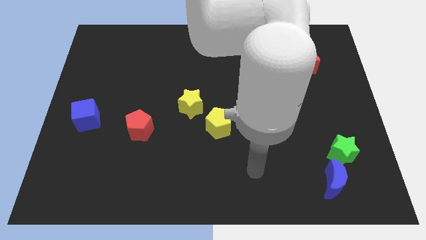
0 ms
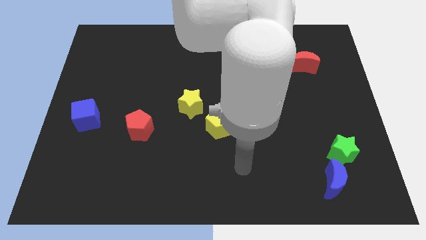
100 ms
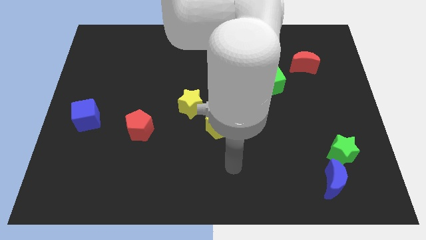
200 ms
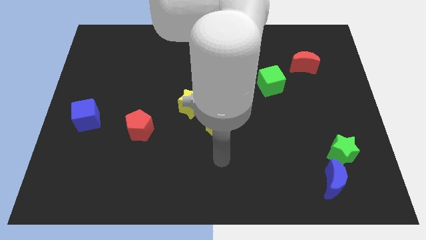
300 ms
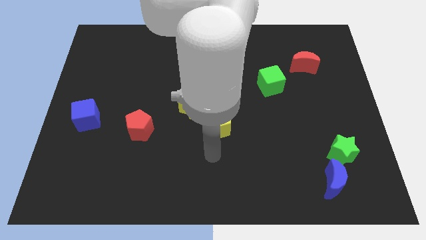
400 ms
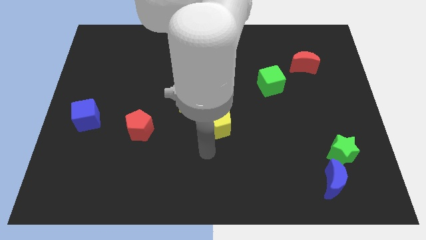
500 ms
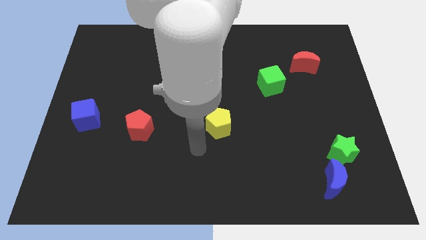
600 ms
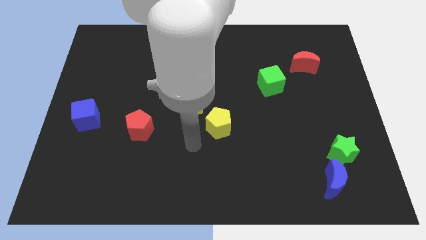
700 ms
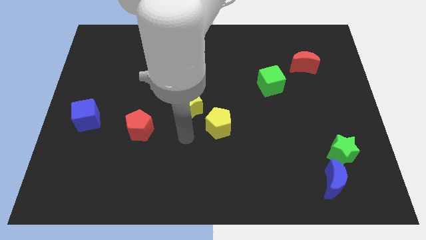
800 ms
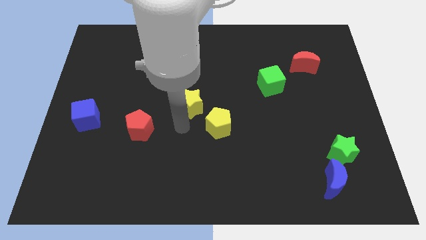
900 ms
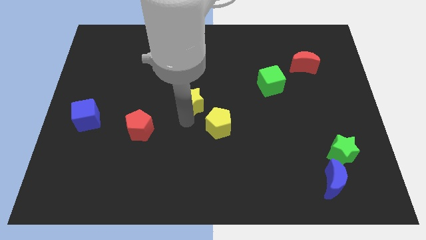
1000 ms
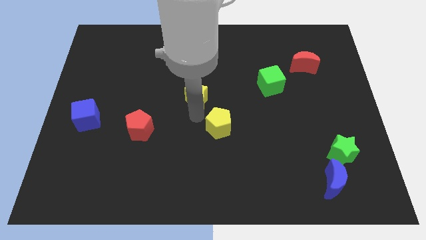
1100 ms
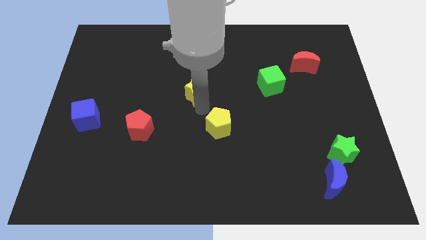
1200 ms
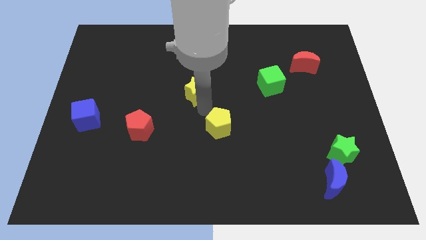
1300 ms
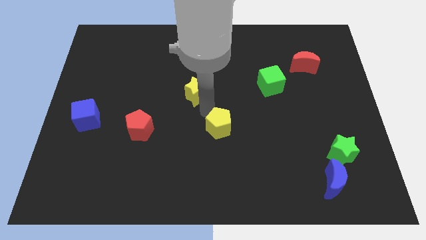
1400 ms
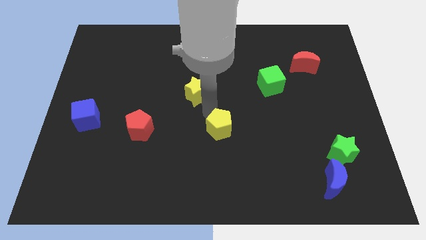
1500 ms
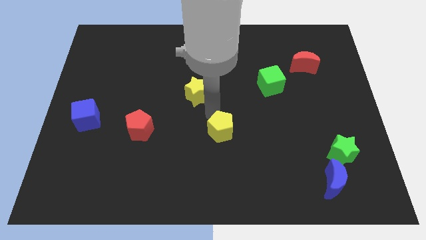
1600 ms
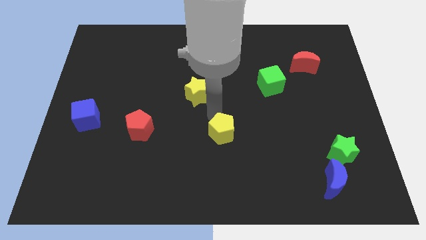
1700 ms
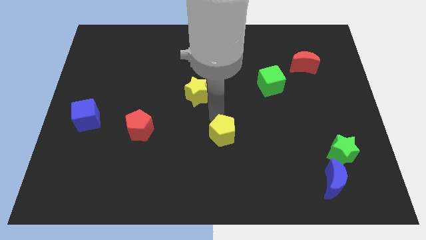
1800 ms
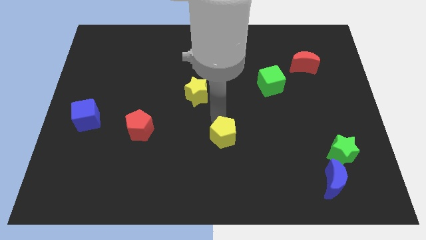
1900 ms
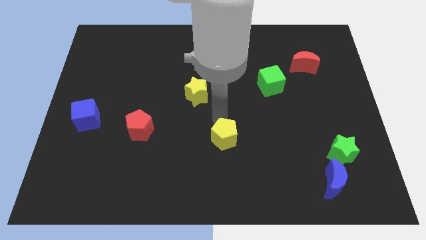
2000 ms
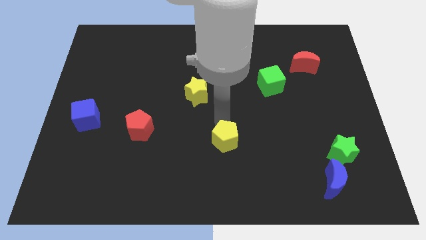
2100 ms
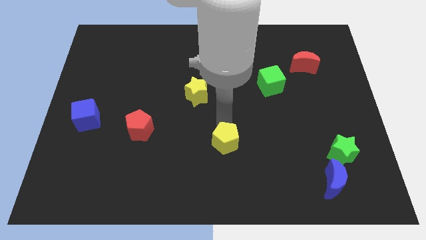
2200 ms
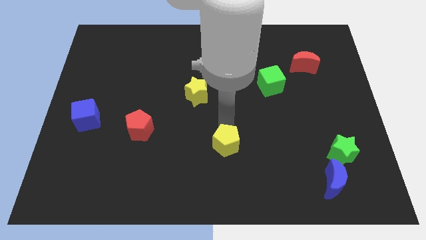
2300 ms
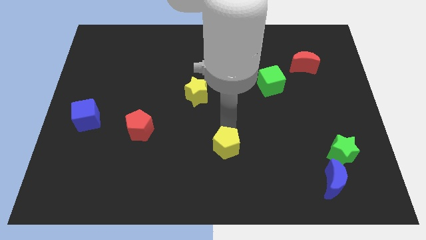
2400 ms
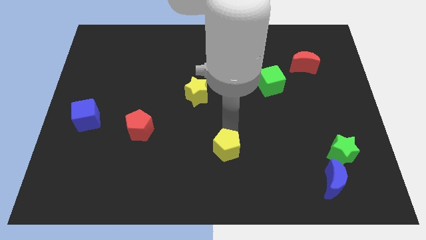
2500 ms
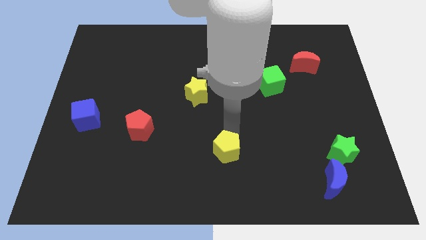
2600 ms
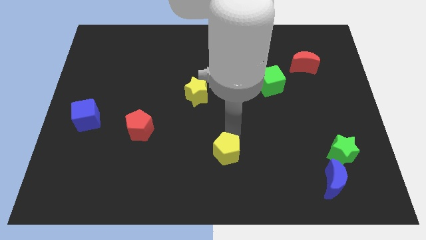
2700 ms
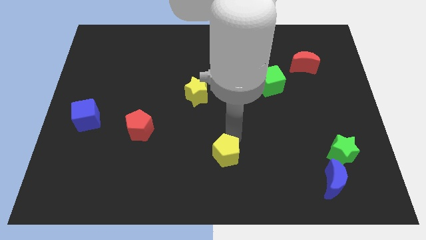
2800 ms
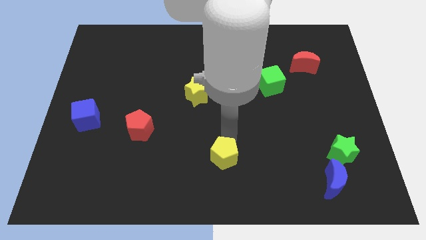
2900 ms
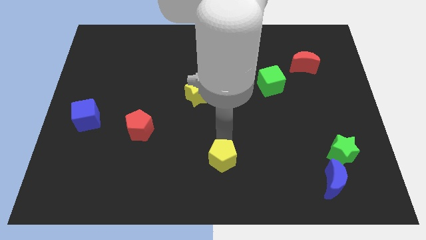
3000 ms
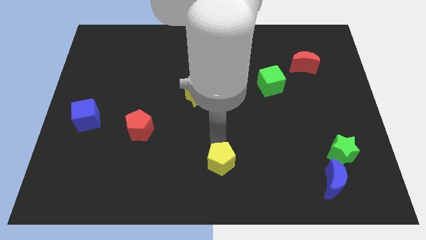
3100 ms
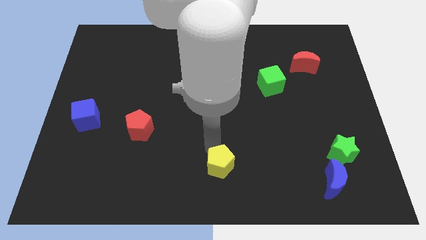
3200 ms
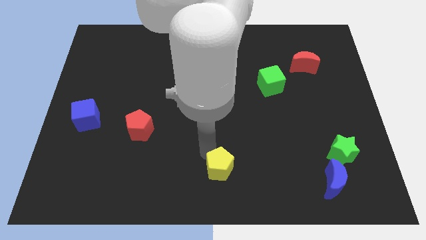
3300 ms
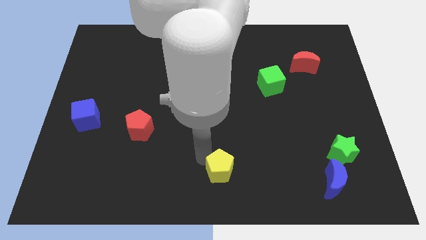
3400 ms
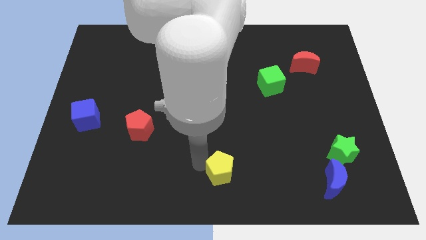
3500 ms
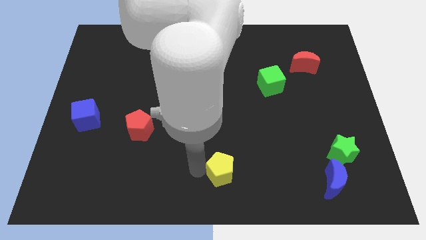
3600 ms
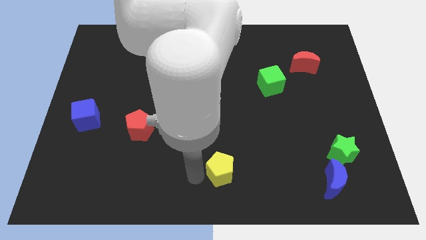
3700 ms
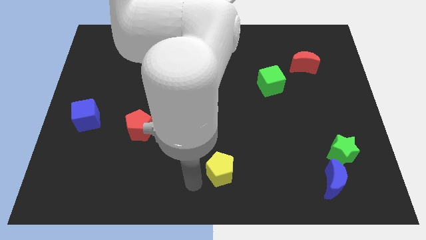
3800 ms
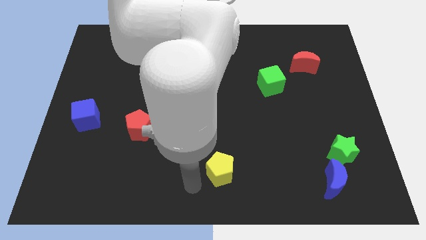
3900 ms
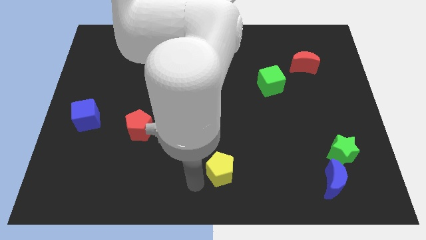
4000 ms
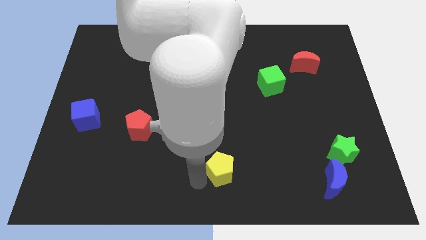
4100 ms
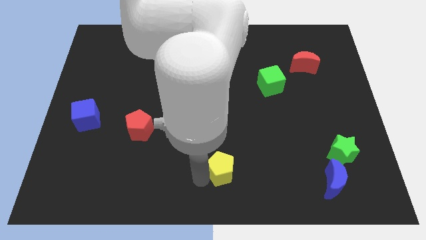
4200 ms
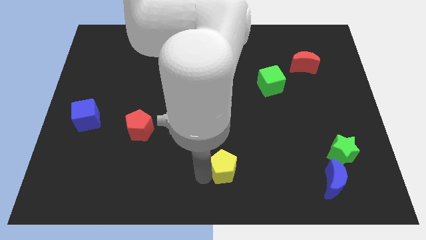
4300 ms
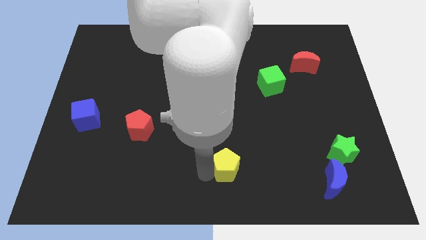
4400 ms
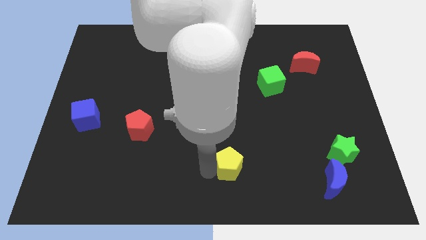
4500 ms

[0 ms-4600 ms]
move the yellow pentagon somewhat downwards and then to the right

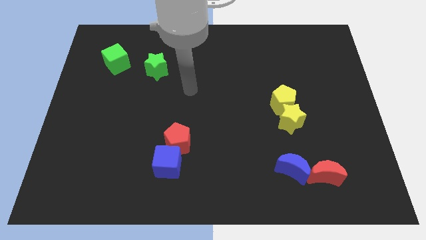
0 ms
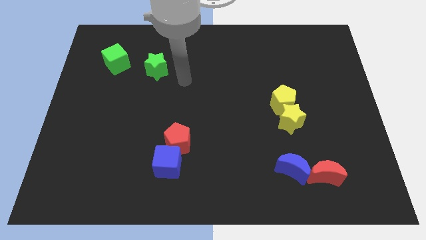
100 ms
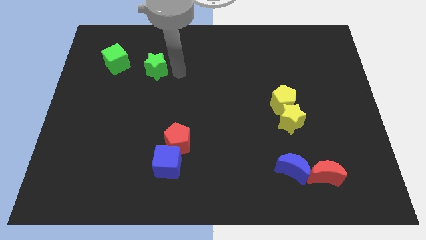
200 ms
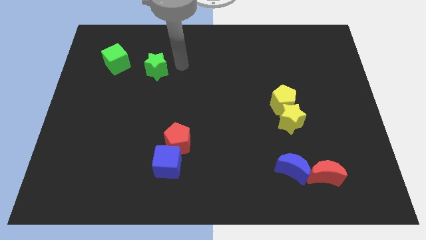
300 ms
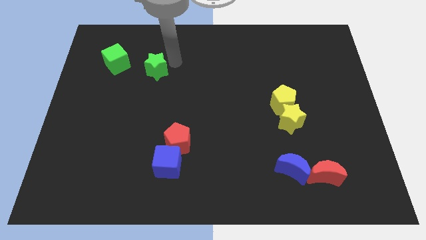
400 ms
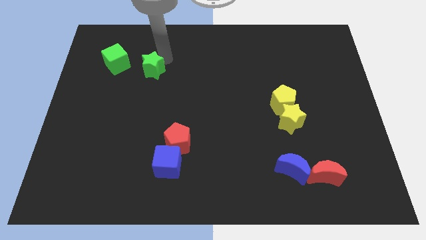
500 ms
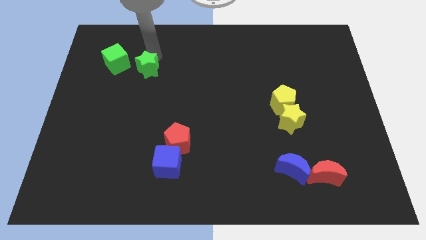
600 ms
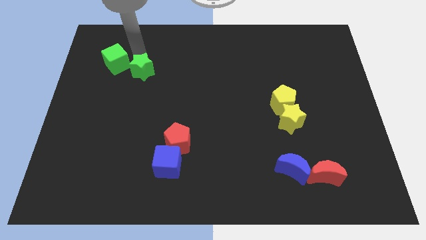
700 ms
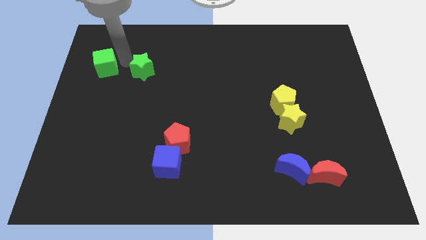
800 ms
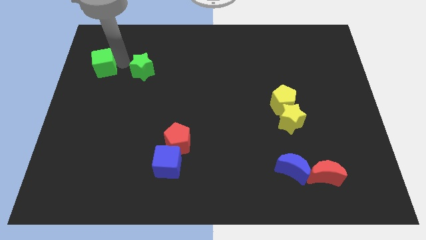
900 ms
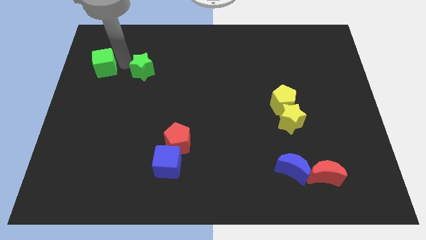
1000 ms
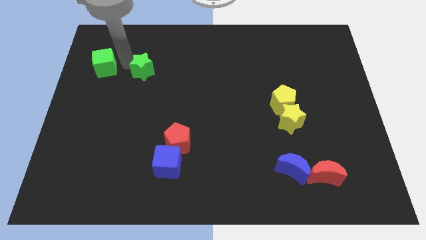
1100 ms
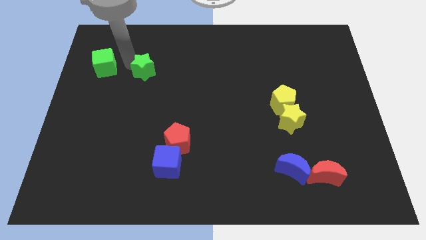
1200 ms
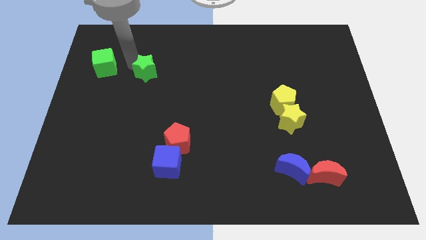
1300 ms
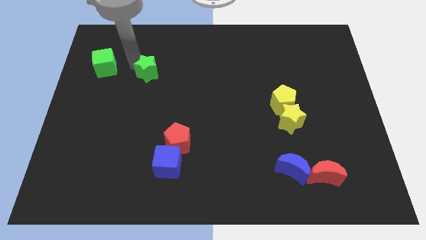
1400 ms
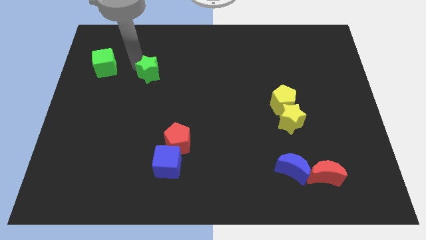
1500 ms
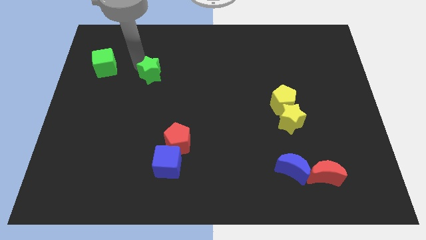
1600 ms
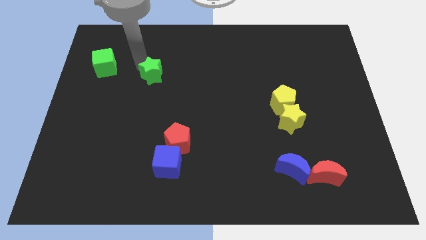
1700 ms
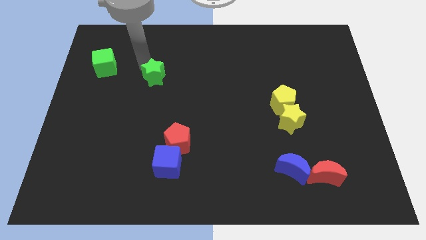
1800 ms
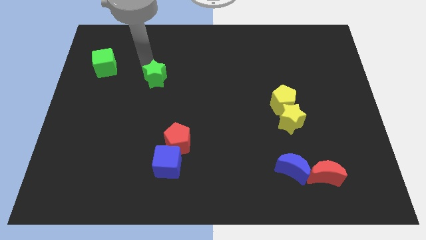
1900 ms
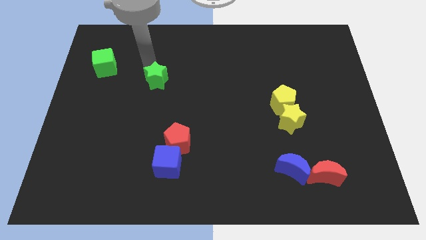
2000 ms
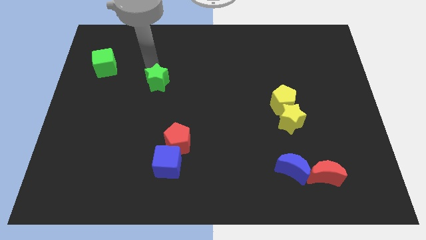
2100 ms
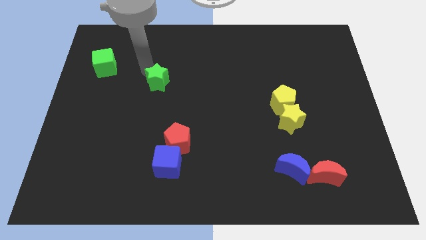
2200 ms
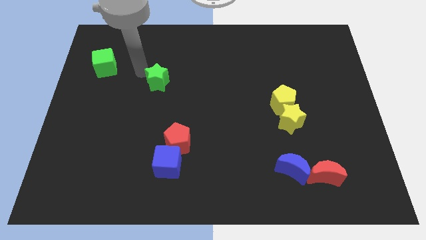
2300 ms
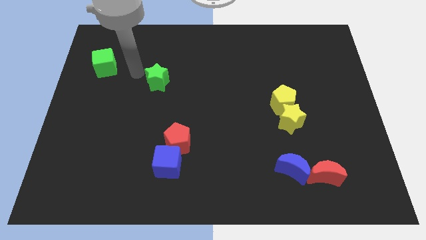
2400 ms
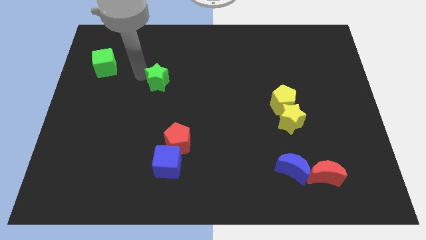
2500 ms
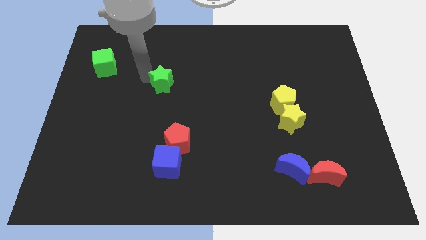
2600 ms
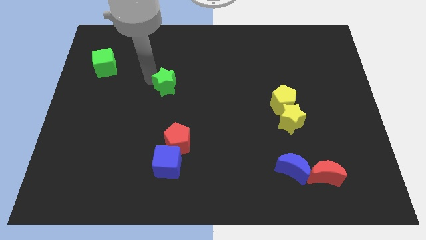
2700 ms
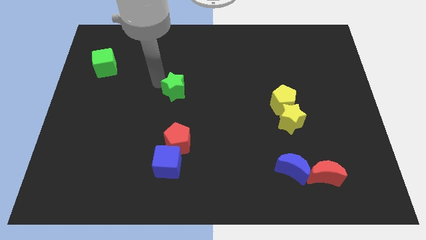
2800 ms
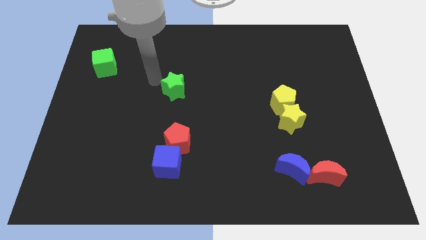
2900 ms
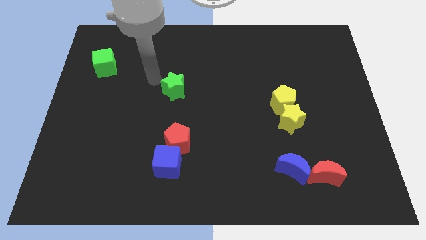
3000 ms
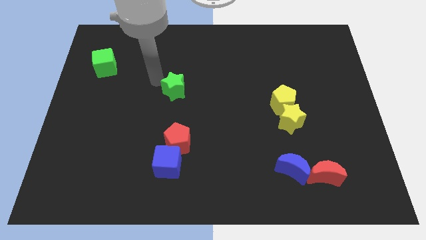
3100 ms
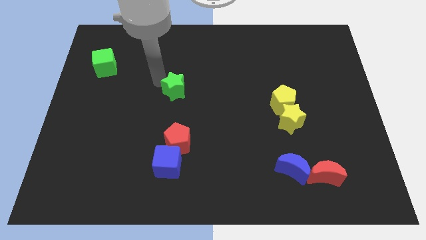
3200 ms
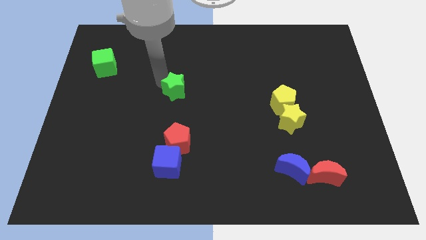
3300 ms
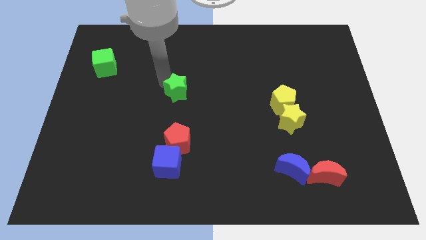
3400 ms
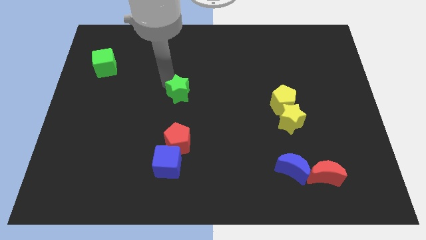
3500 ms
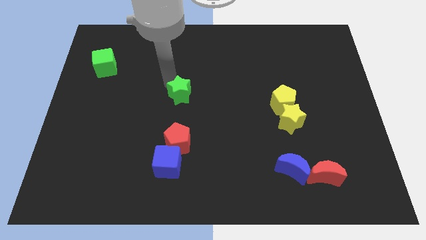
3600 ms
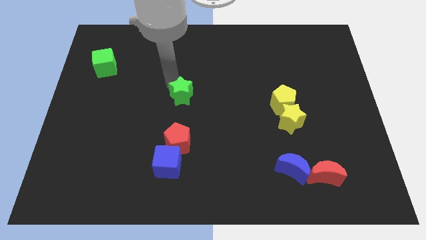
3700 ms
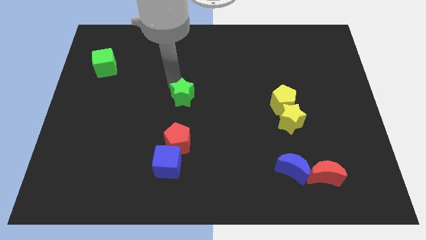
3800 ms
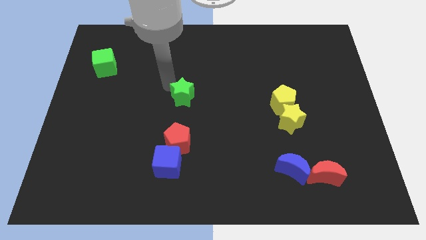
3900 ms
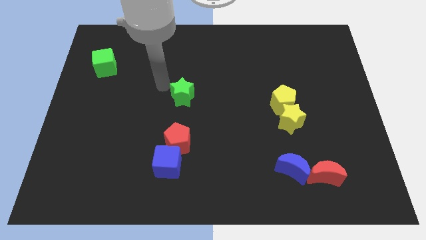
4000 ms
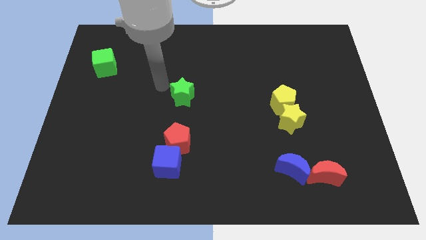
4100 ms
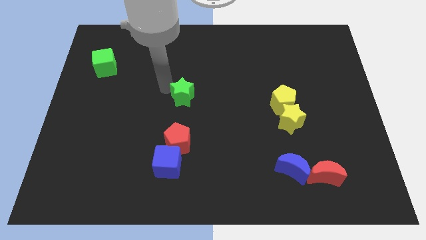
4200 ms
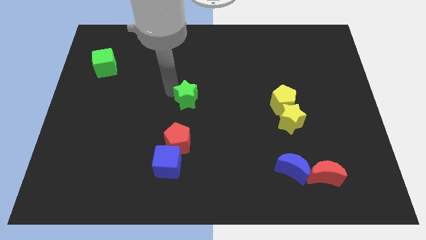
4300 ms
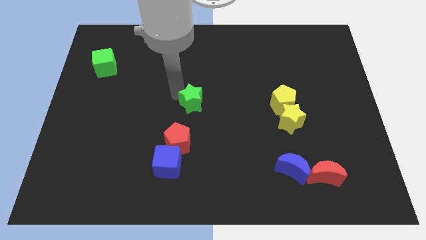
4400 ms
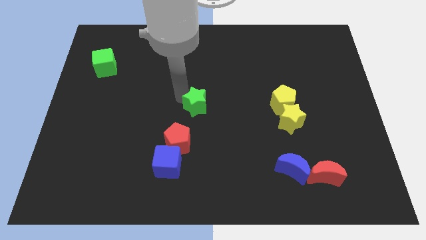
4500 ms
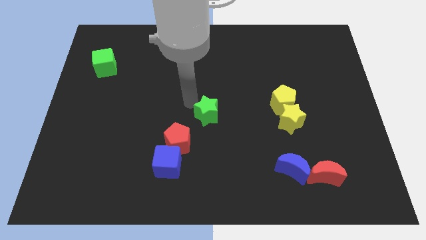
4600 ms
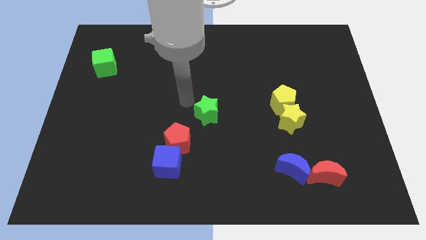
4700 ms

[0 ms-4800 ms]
slide the green star downwards and then right
